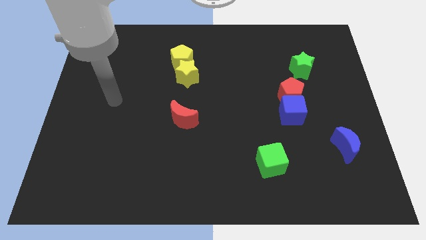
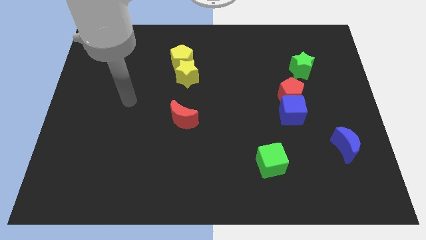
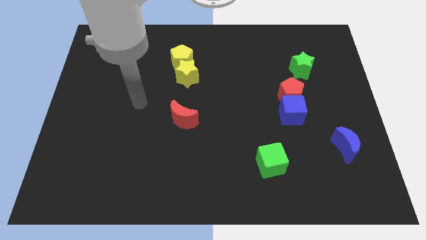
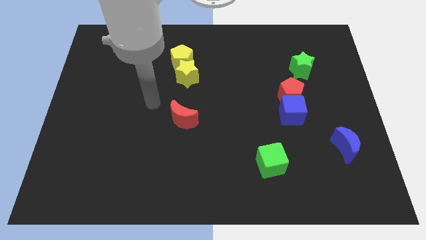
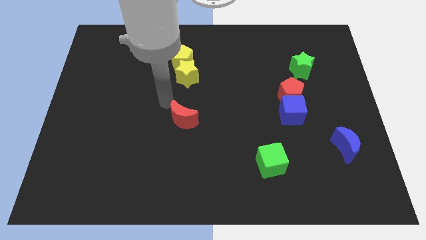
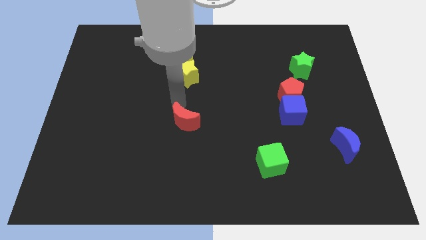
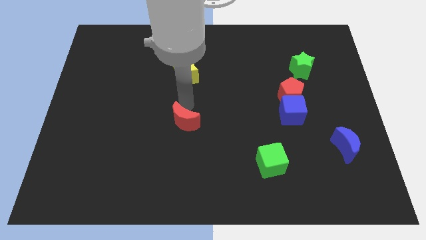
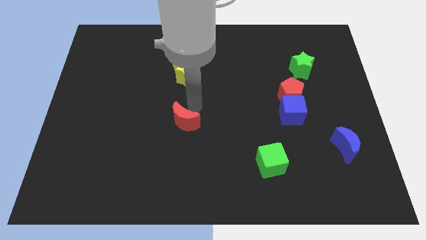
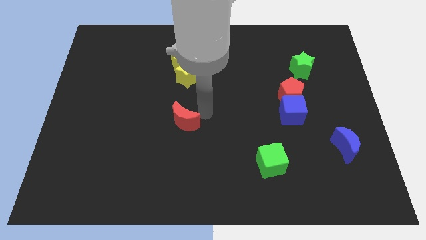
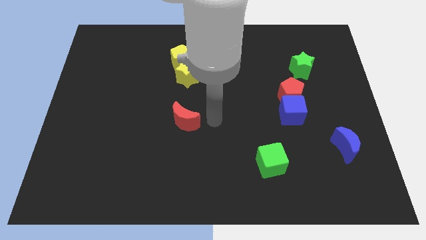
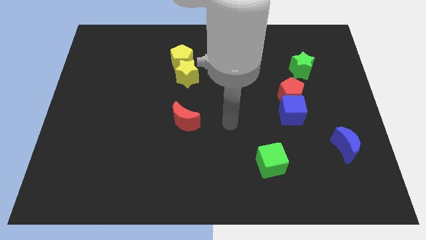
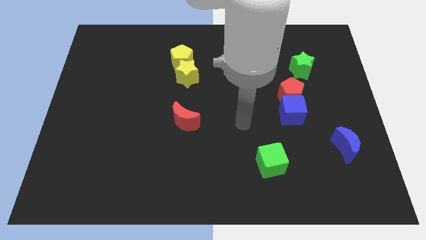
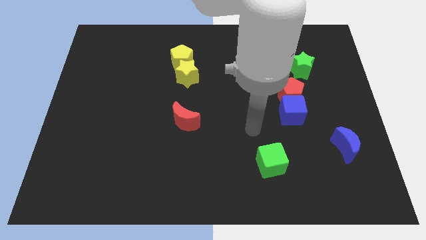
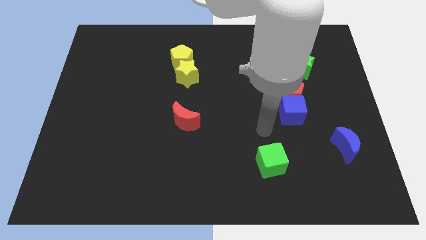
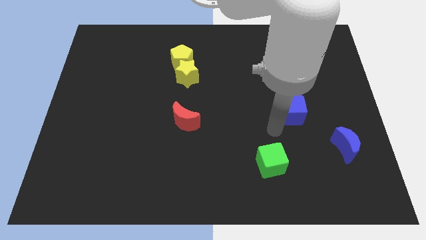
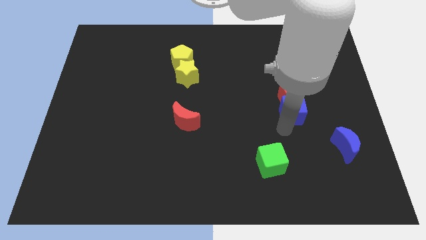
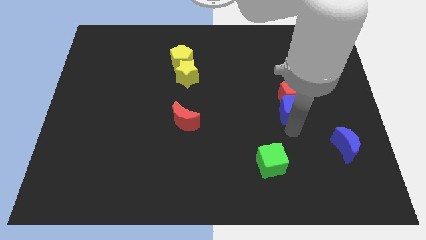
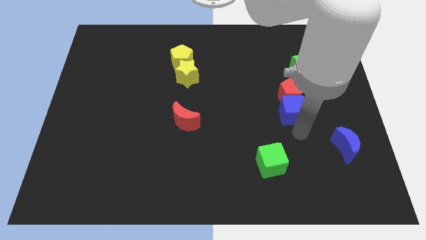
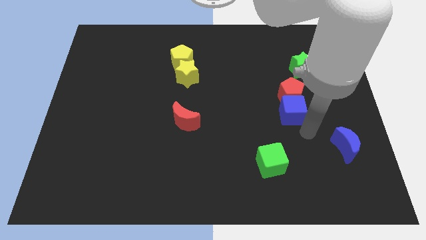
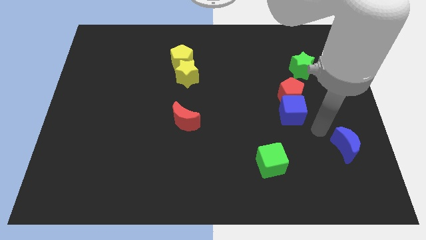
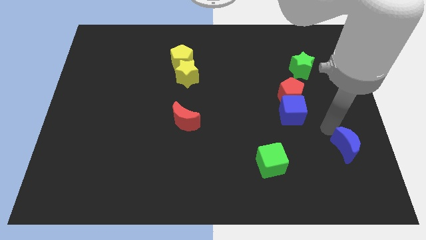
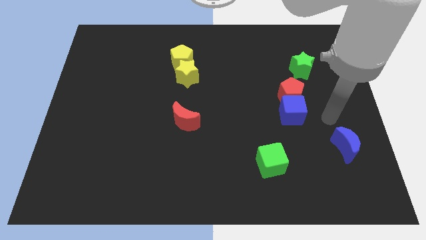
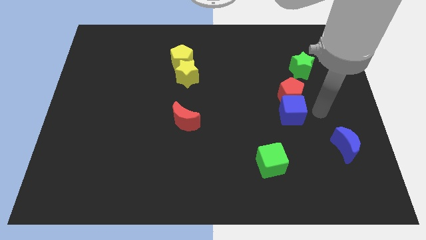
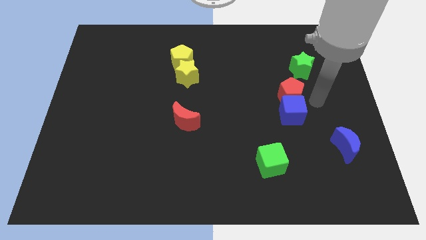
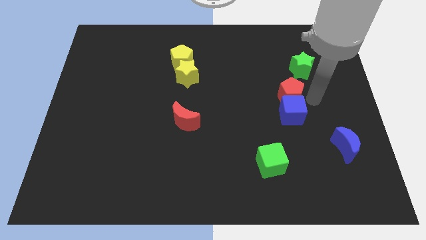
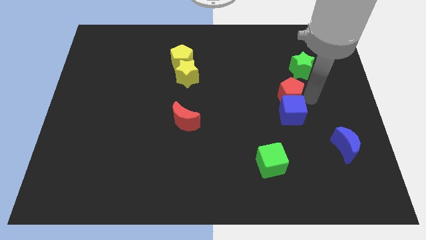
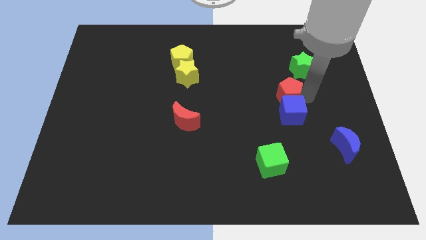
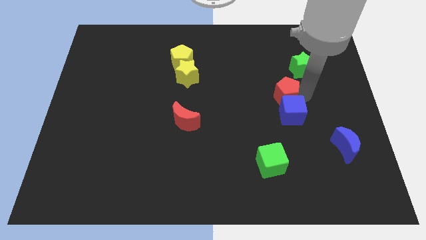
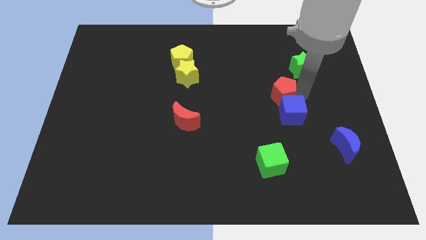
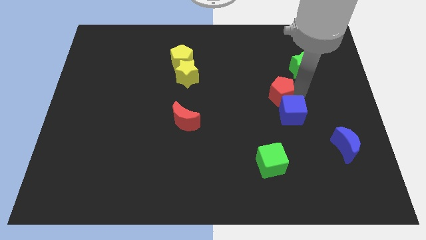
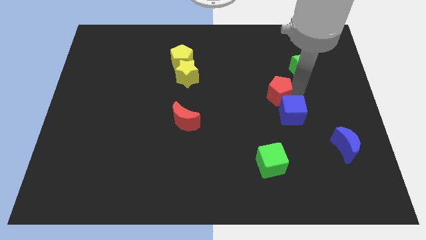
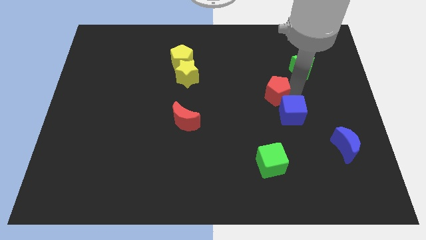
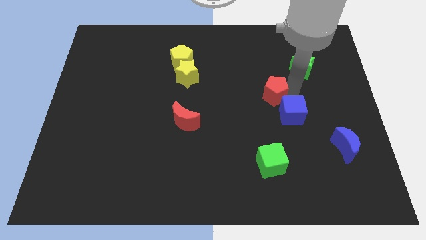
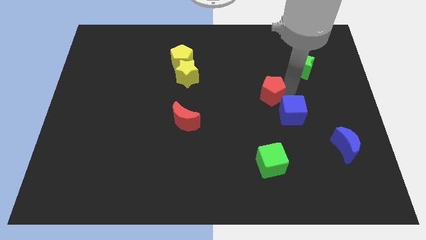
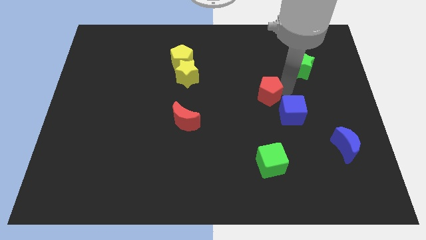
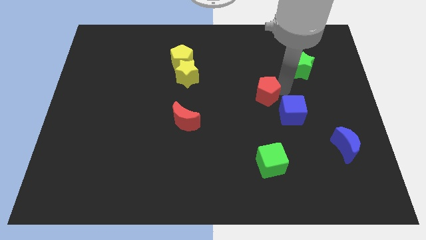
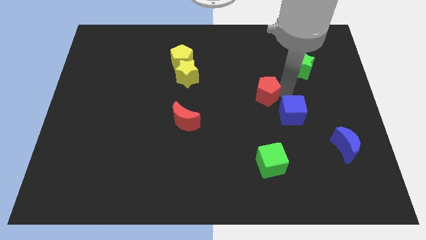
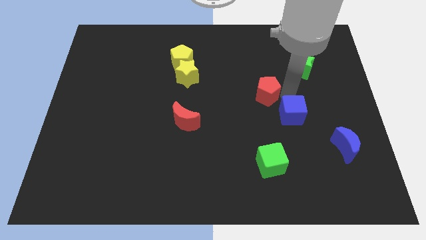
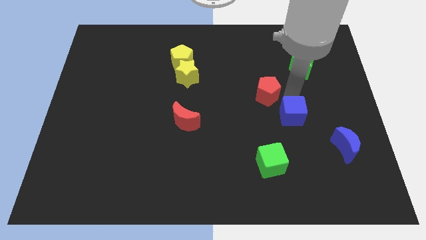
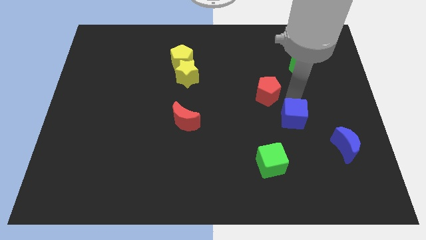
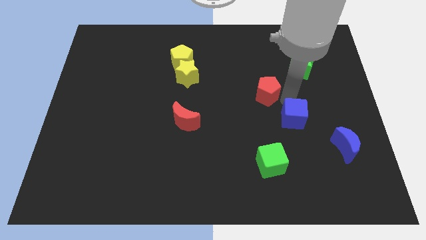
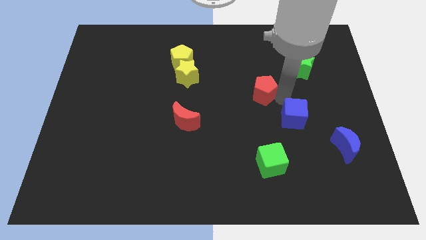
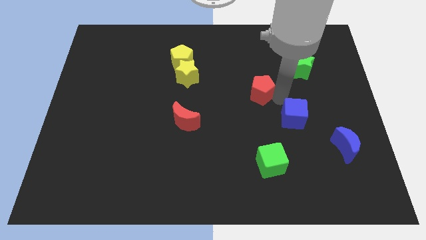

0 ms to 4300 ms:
push the red pentagon left a bit

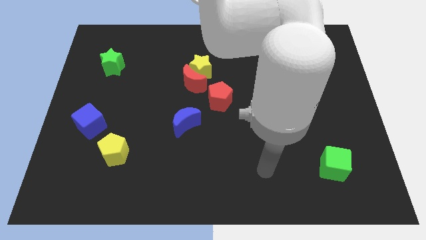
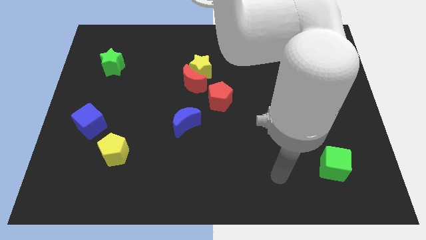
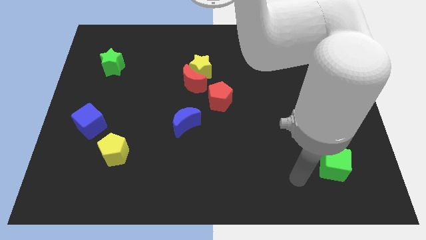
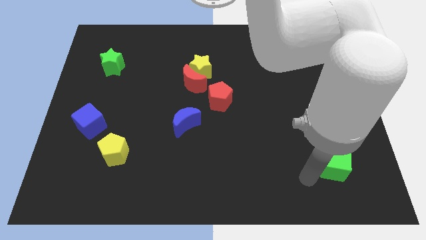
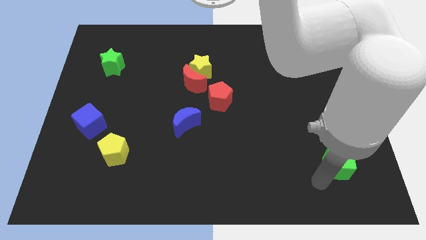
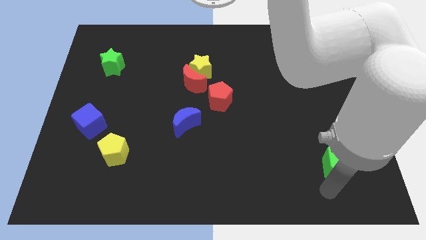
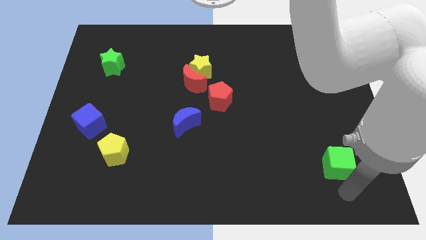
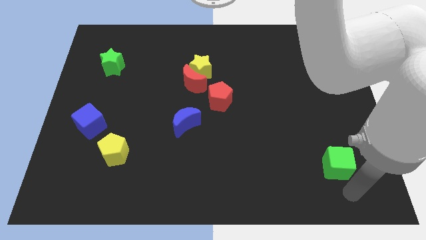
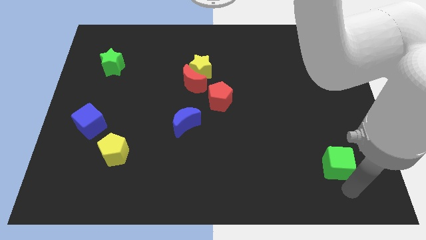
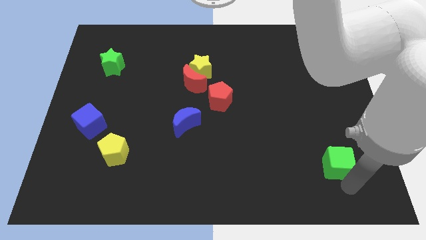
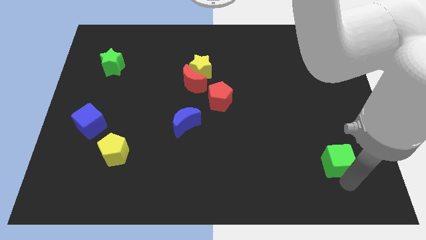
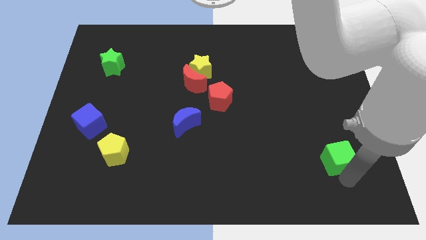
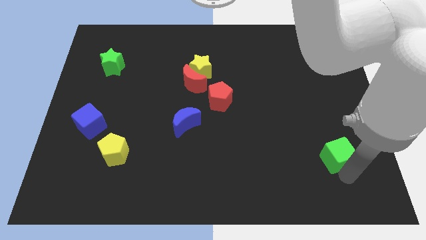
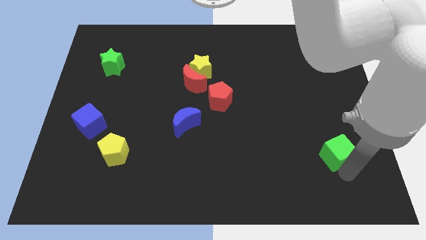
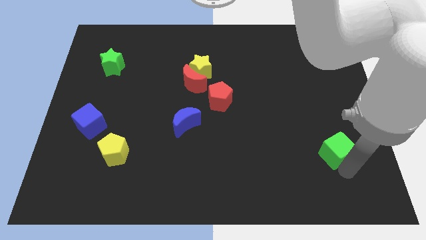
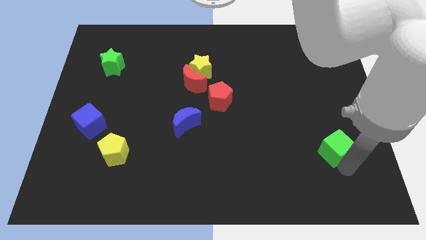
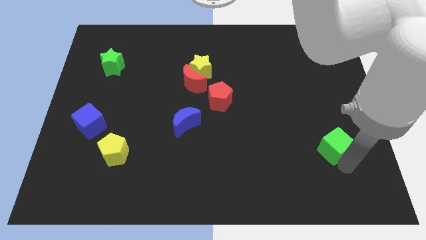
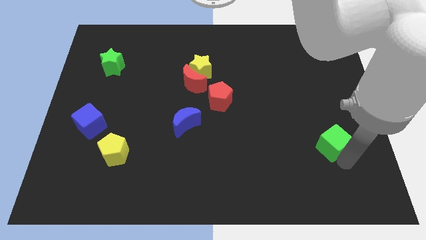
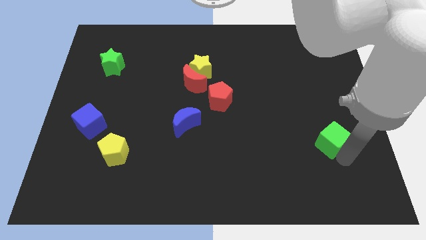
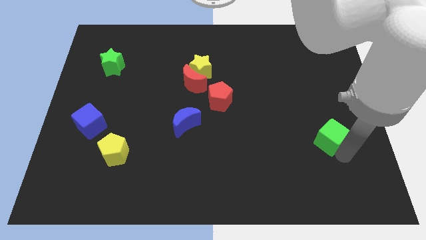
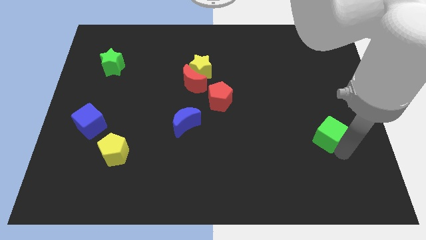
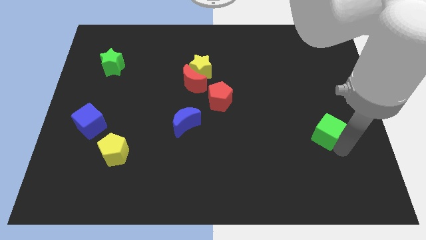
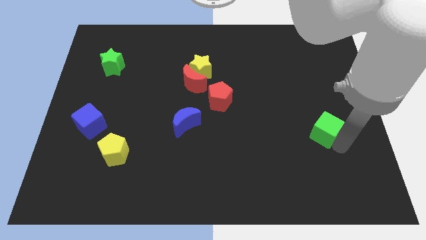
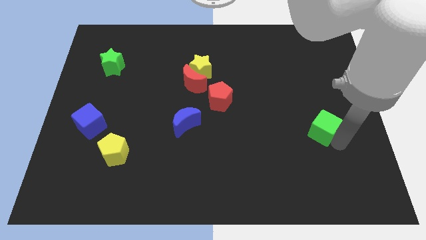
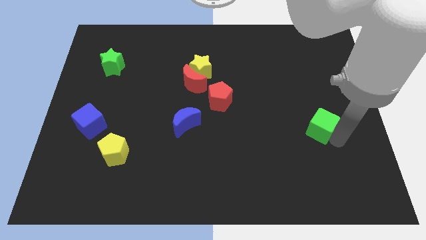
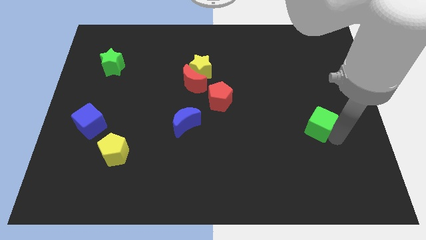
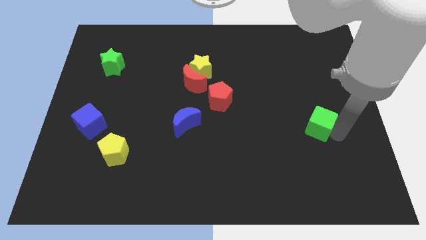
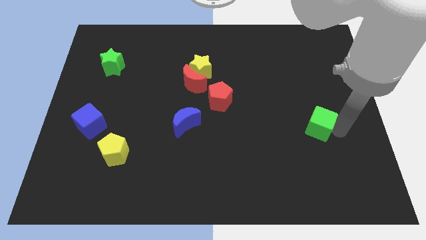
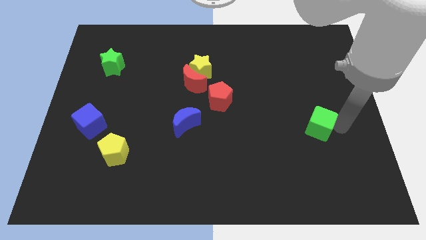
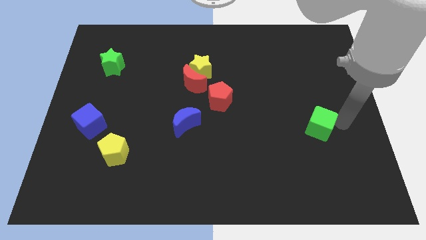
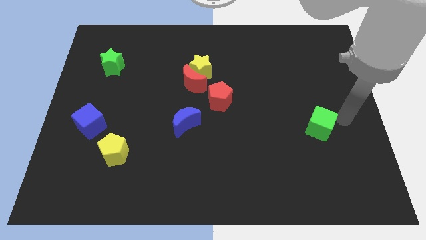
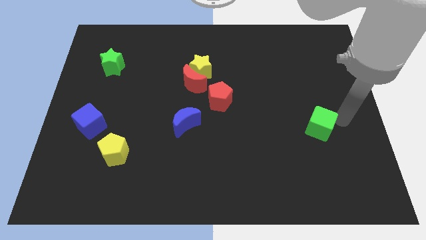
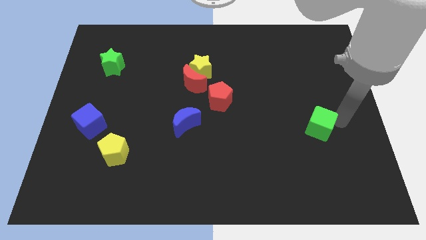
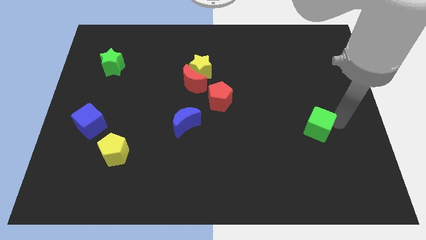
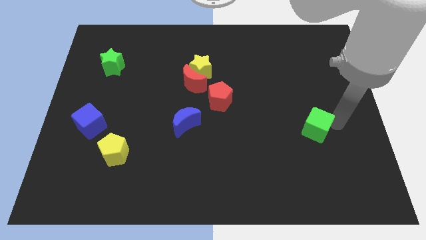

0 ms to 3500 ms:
push the green cube up and to the left diagonally a little bit

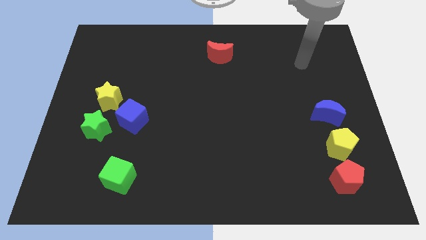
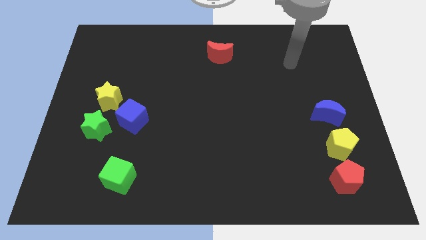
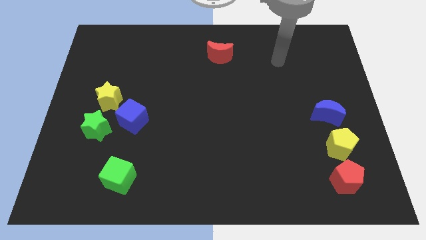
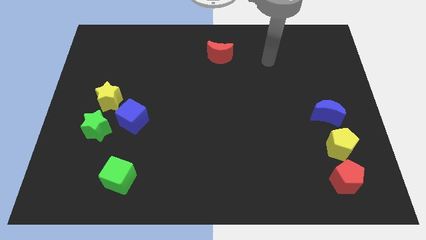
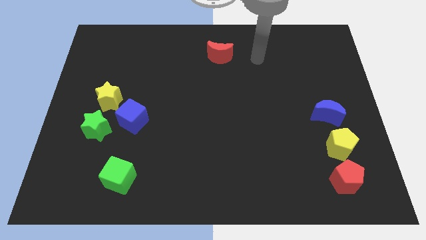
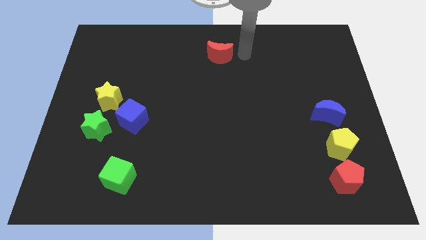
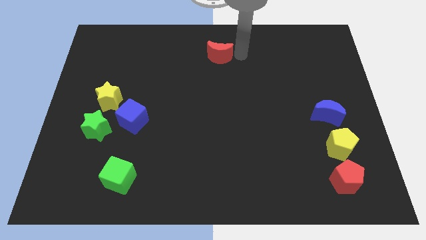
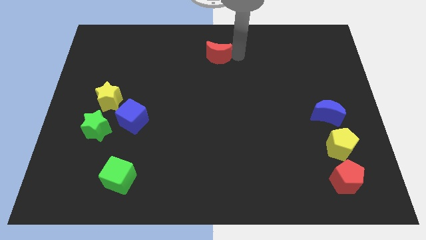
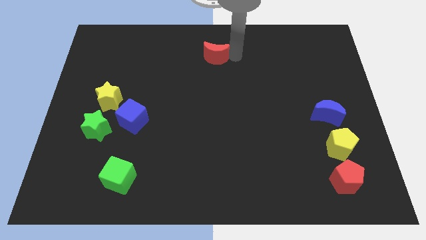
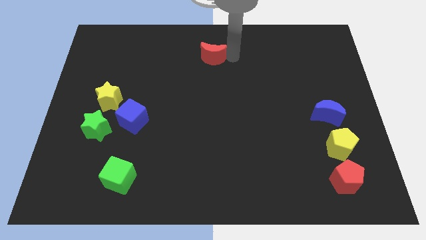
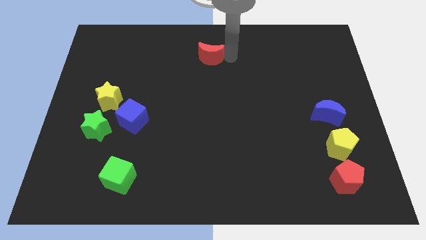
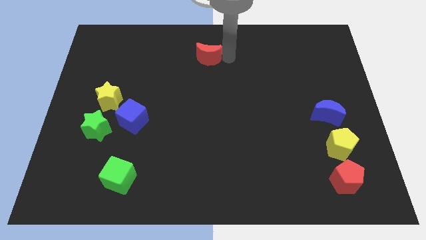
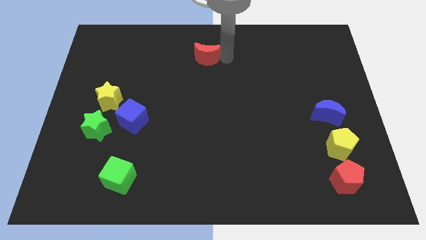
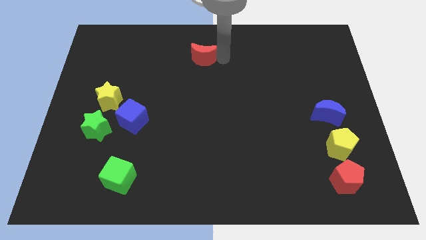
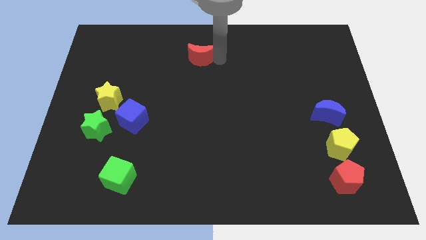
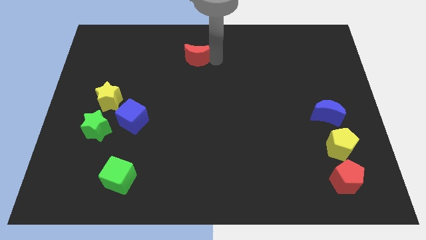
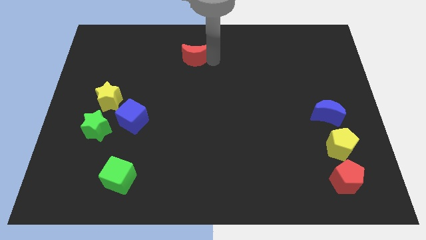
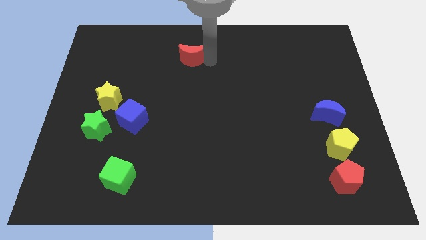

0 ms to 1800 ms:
move the red moon a little bit left
